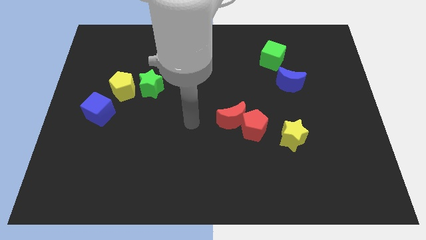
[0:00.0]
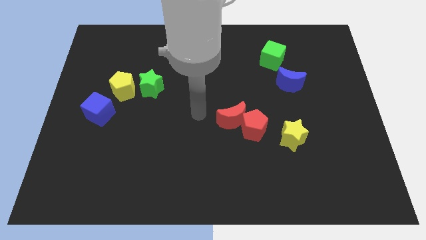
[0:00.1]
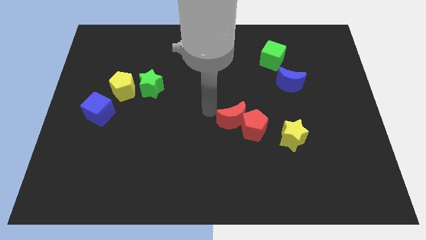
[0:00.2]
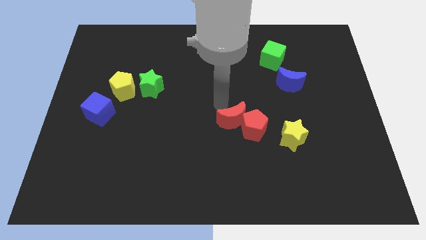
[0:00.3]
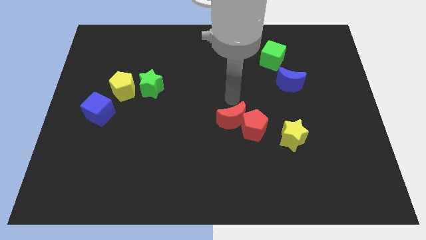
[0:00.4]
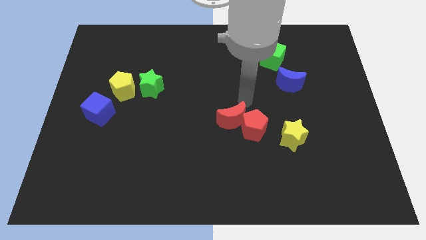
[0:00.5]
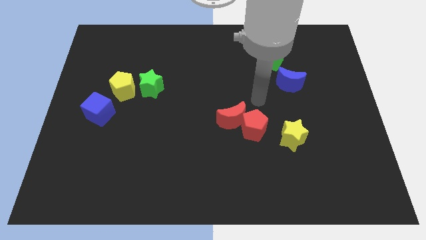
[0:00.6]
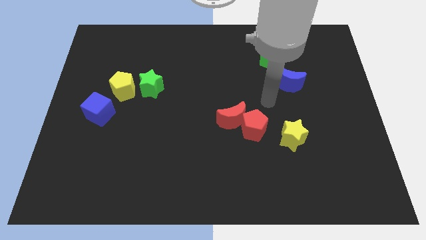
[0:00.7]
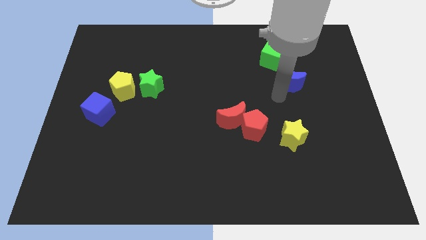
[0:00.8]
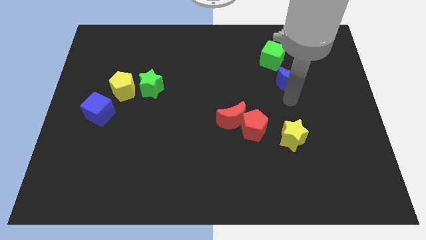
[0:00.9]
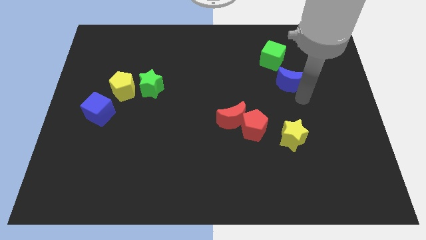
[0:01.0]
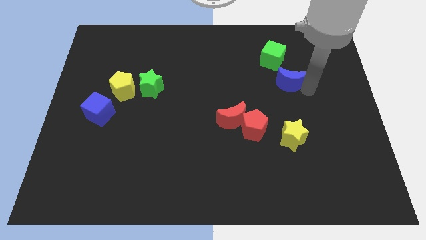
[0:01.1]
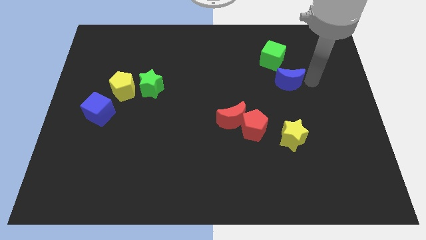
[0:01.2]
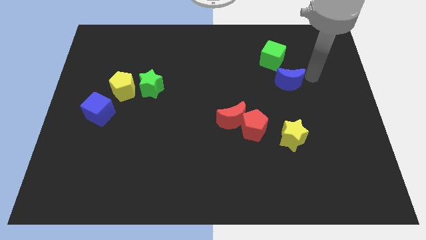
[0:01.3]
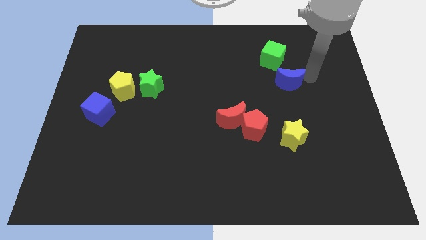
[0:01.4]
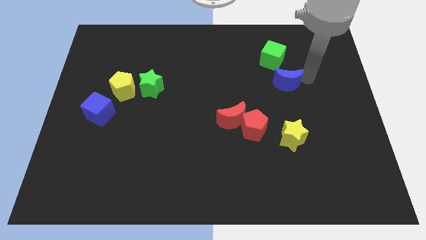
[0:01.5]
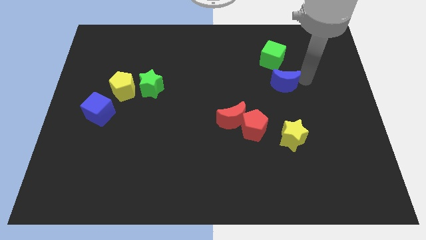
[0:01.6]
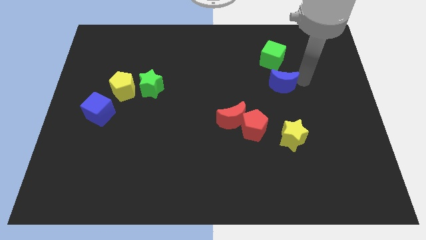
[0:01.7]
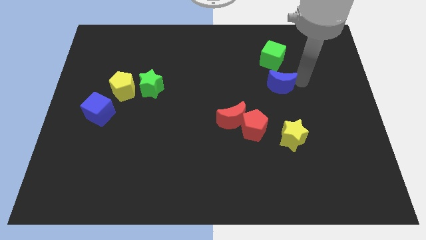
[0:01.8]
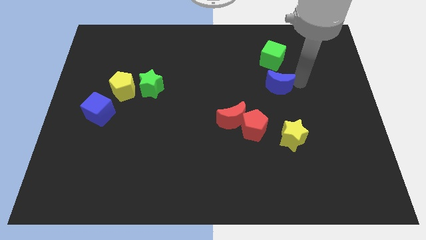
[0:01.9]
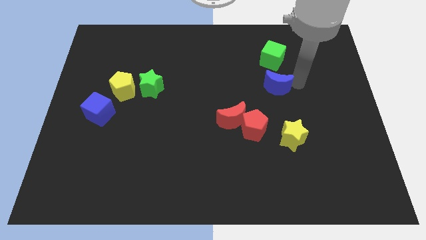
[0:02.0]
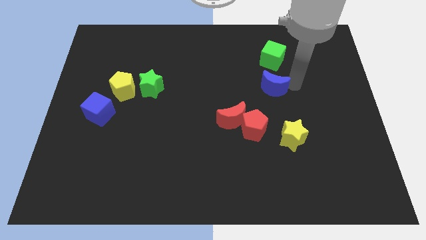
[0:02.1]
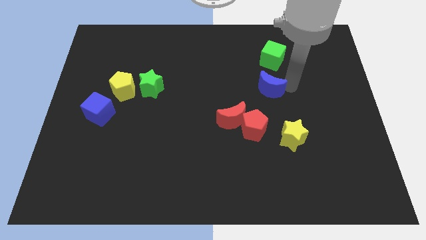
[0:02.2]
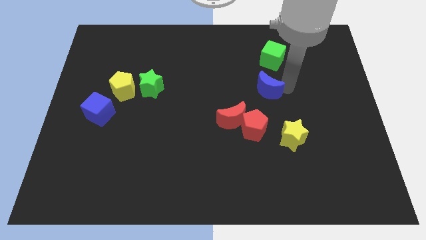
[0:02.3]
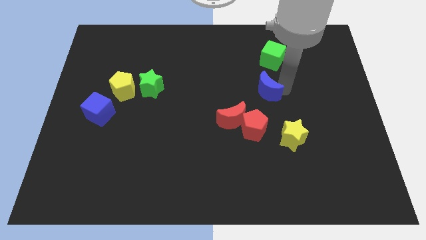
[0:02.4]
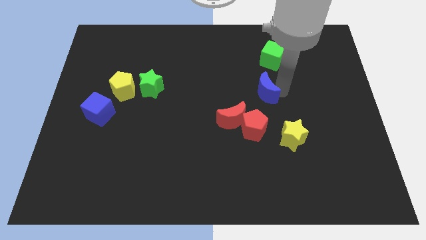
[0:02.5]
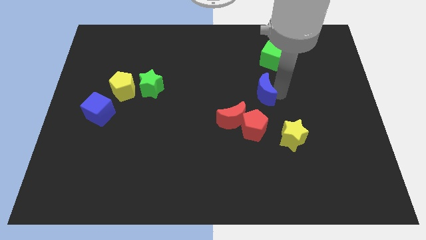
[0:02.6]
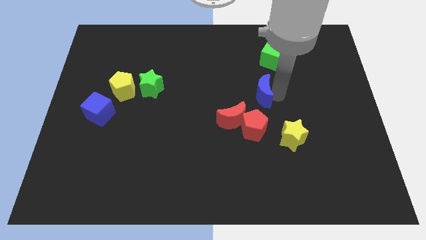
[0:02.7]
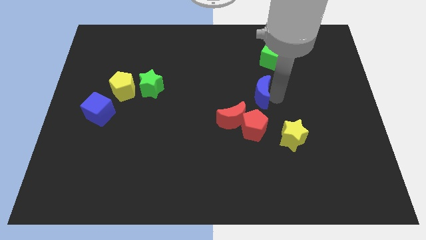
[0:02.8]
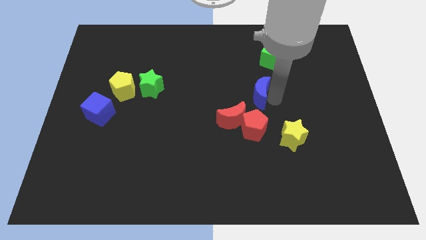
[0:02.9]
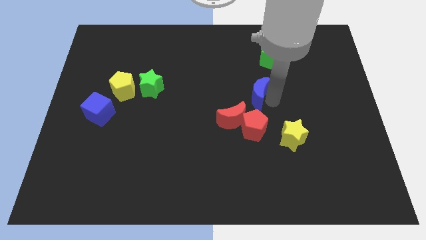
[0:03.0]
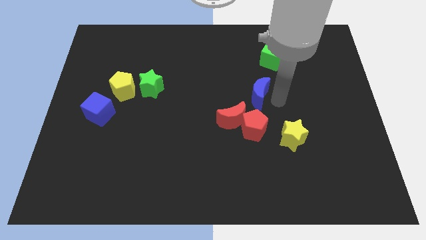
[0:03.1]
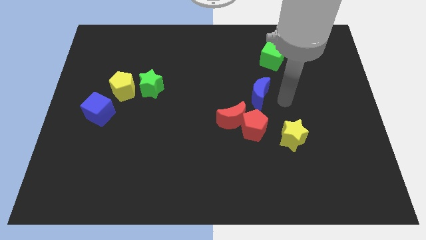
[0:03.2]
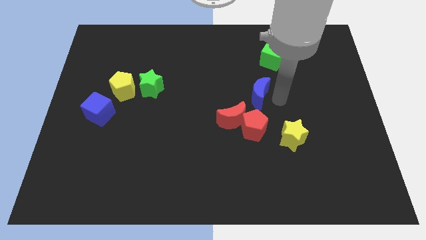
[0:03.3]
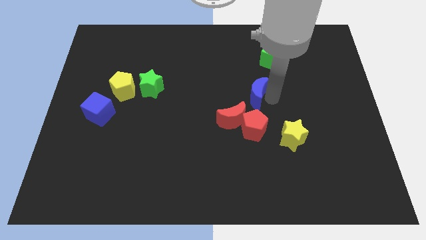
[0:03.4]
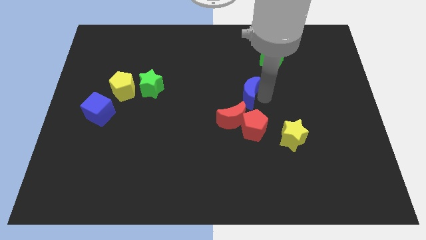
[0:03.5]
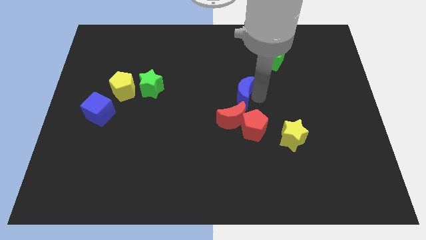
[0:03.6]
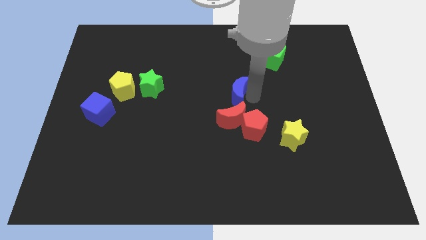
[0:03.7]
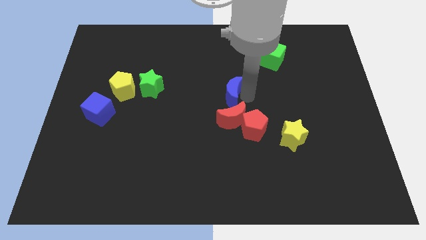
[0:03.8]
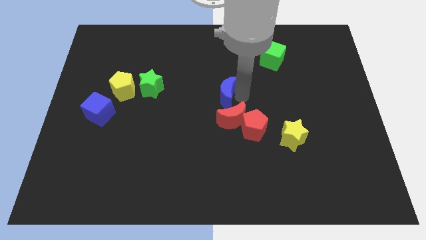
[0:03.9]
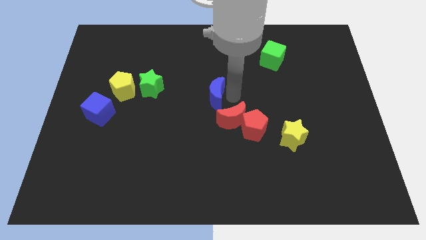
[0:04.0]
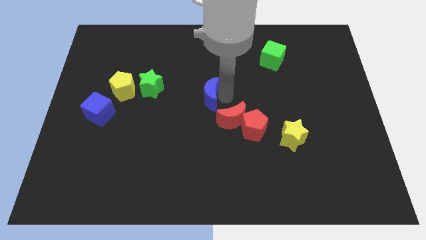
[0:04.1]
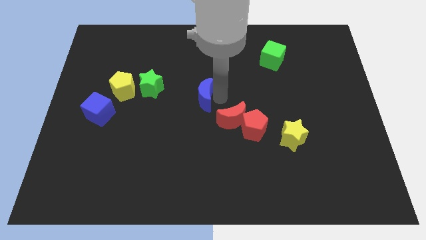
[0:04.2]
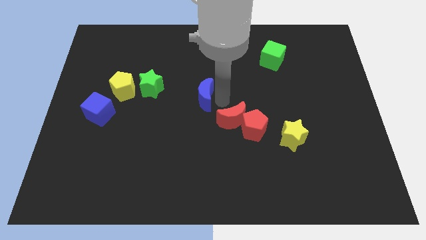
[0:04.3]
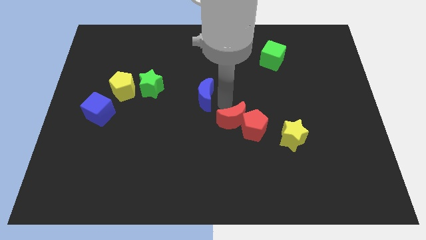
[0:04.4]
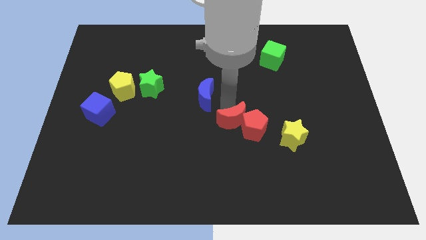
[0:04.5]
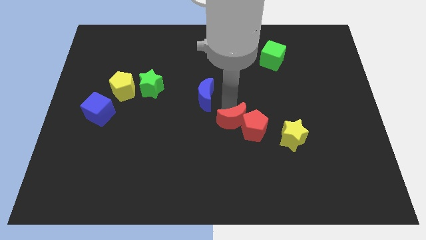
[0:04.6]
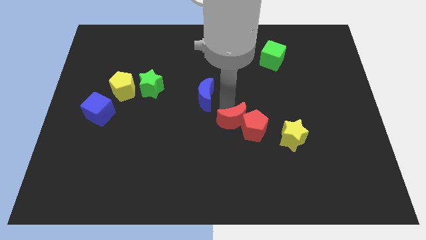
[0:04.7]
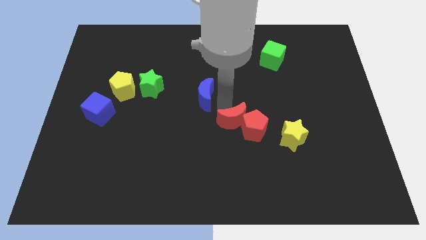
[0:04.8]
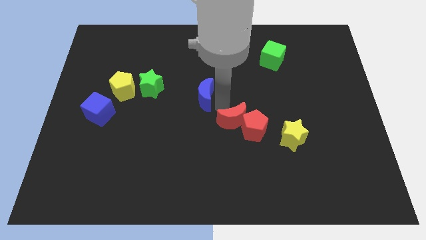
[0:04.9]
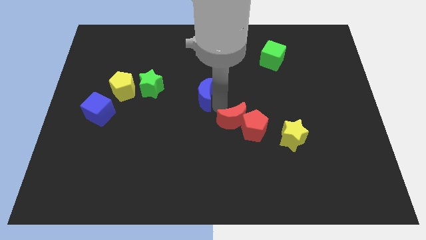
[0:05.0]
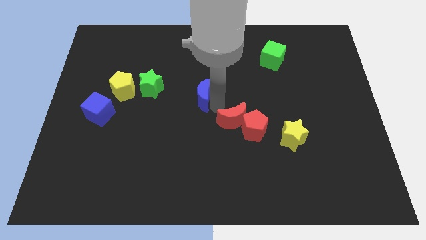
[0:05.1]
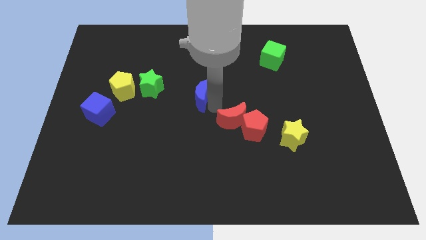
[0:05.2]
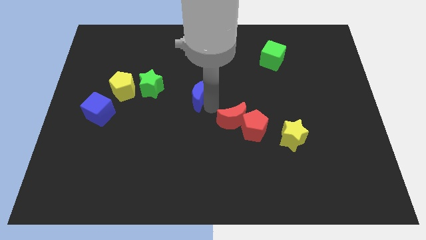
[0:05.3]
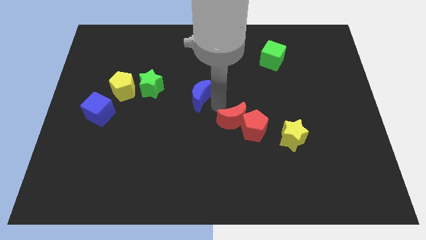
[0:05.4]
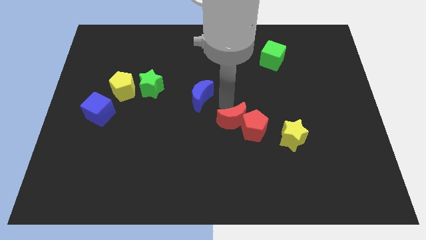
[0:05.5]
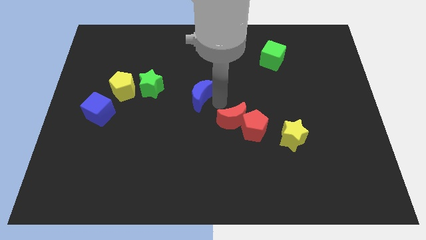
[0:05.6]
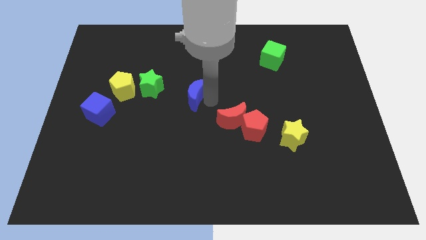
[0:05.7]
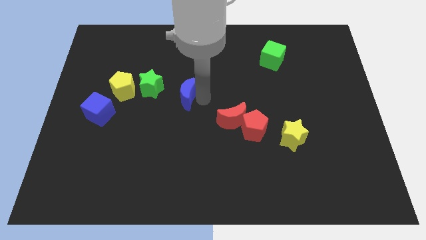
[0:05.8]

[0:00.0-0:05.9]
move the blue moon just right of the yellow pentagon

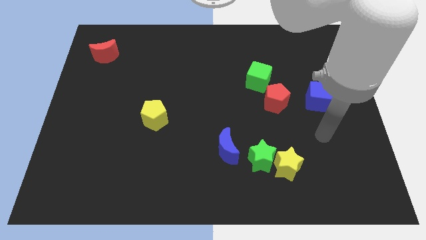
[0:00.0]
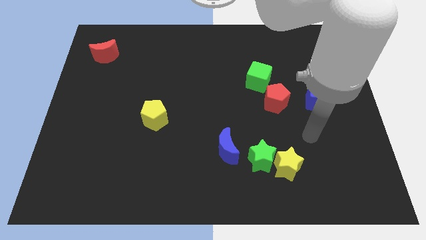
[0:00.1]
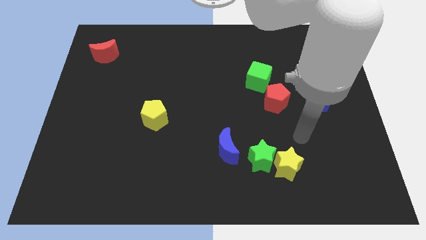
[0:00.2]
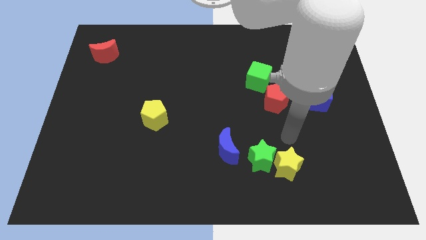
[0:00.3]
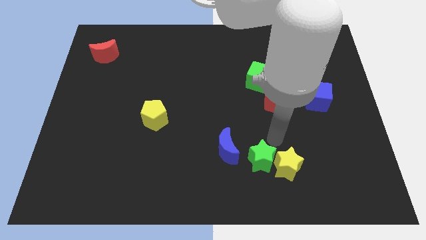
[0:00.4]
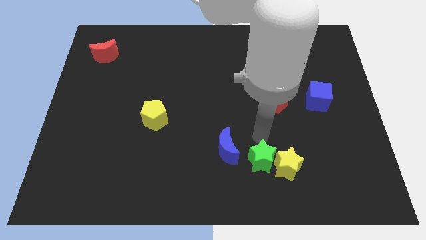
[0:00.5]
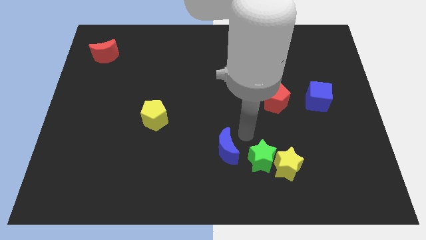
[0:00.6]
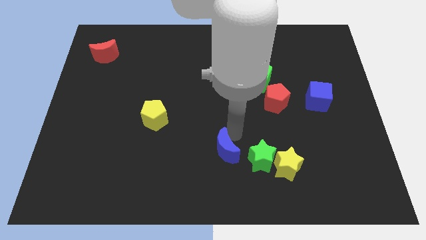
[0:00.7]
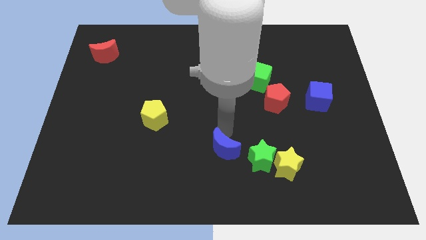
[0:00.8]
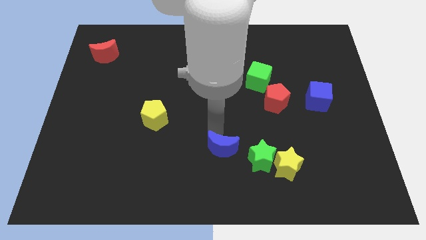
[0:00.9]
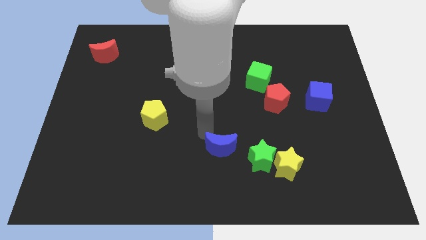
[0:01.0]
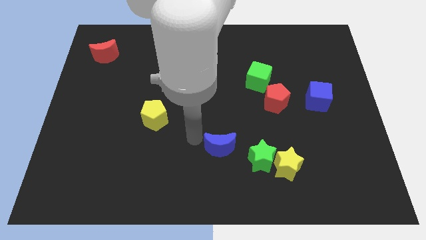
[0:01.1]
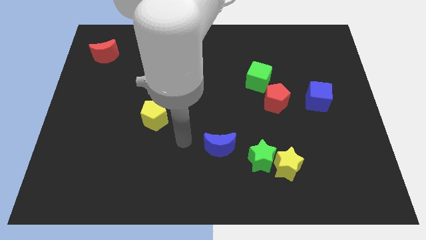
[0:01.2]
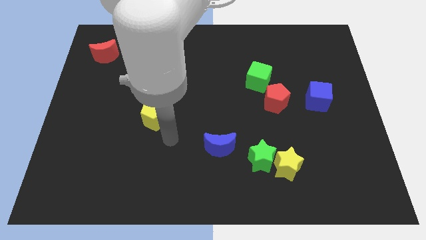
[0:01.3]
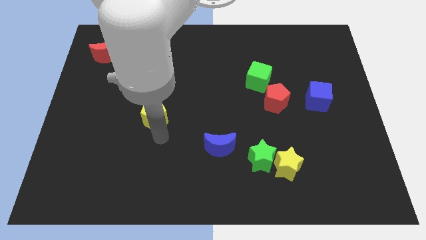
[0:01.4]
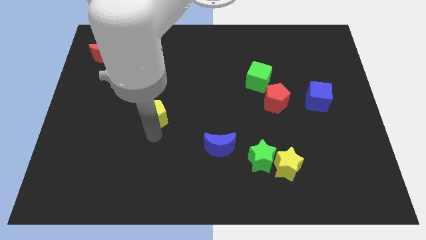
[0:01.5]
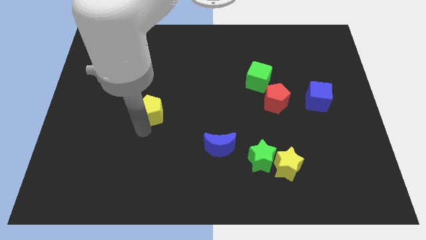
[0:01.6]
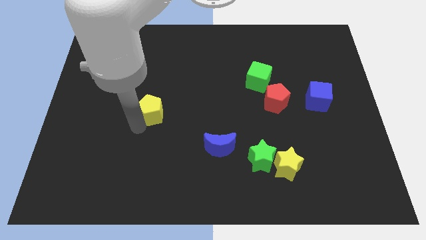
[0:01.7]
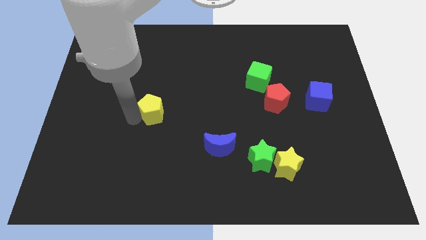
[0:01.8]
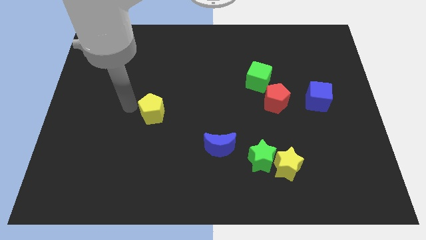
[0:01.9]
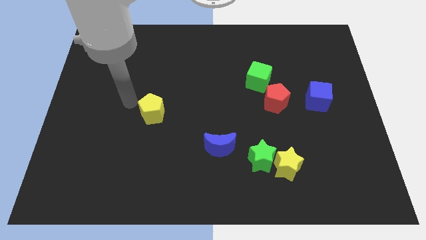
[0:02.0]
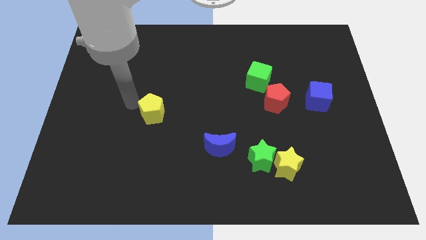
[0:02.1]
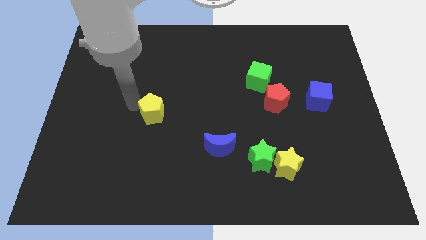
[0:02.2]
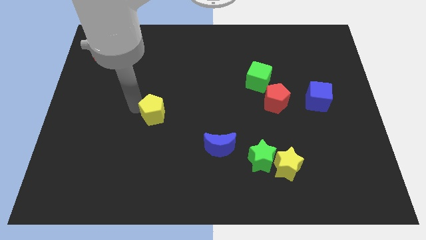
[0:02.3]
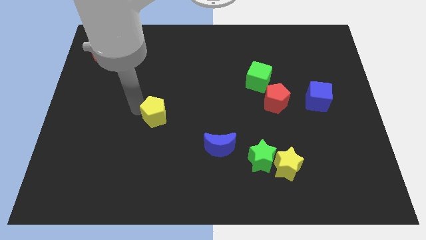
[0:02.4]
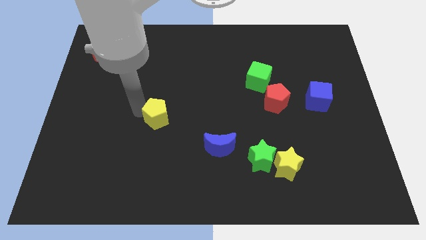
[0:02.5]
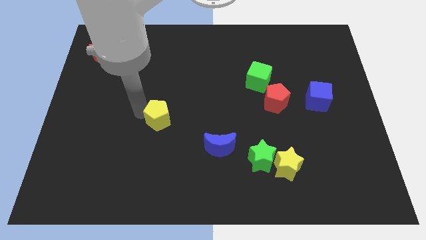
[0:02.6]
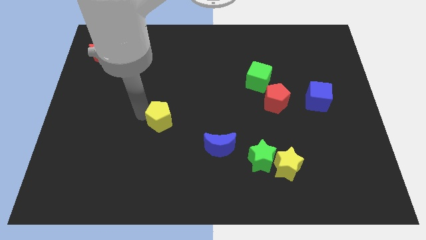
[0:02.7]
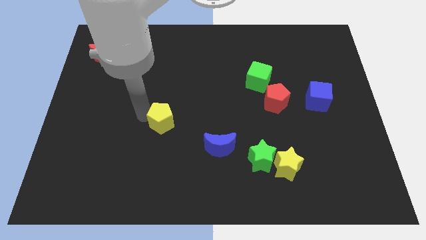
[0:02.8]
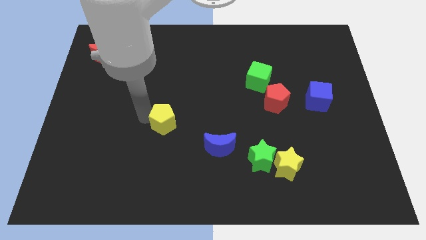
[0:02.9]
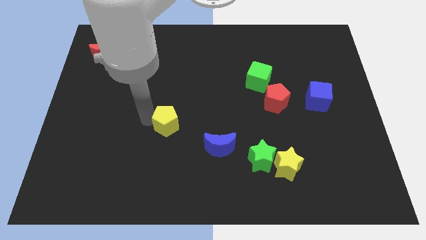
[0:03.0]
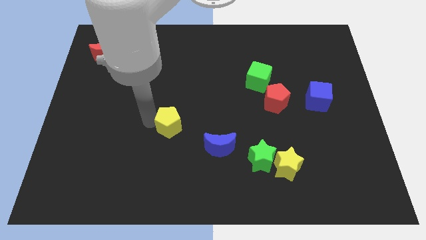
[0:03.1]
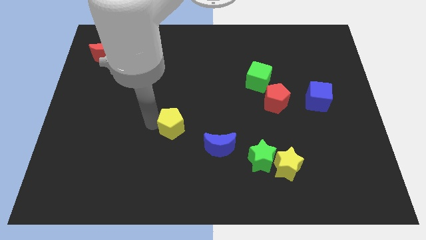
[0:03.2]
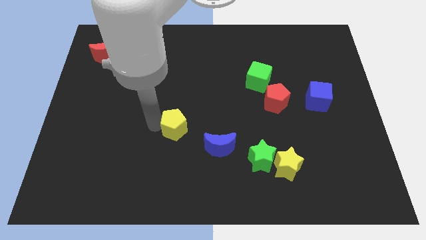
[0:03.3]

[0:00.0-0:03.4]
move the yellow pentagon diagonally up and to the left of the blue moon
